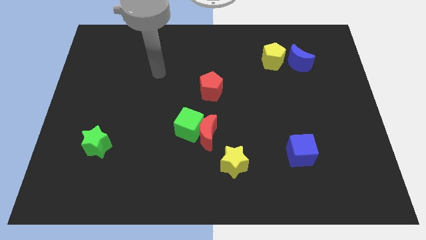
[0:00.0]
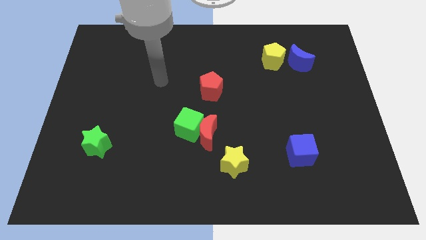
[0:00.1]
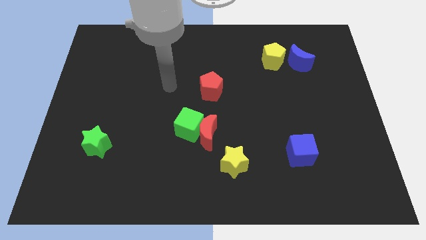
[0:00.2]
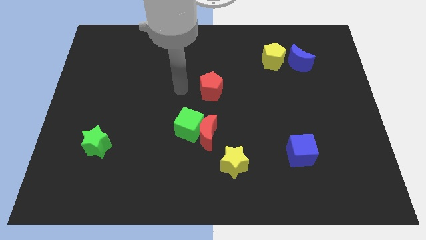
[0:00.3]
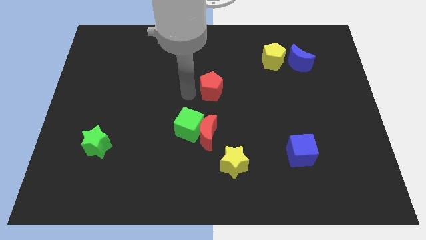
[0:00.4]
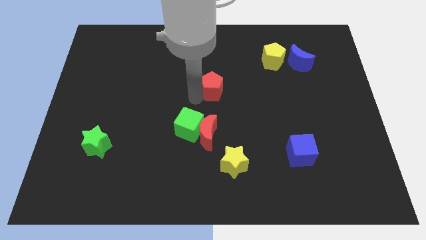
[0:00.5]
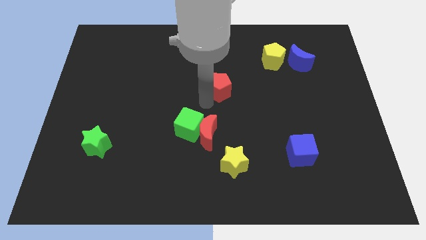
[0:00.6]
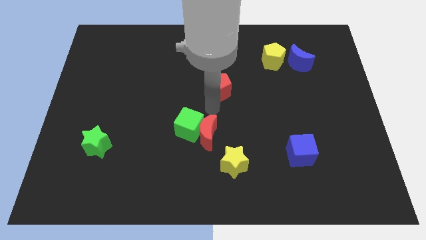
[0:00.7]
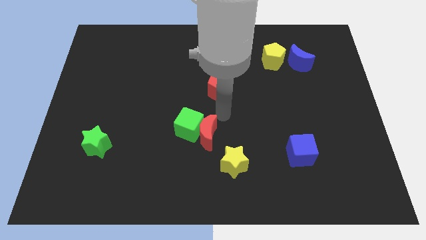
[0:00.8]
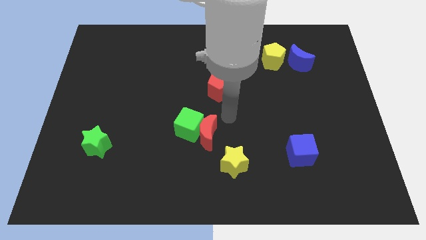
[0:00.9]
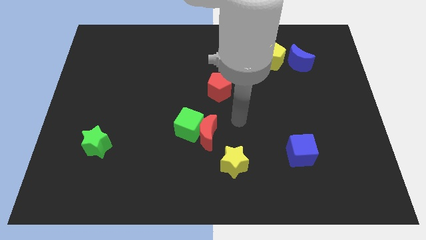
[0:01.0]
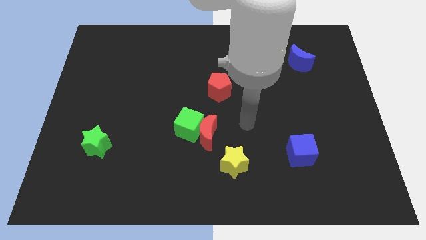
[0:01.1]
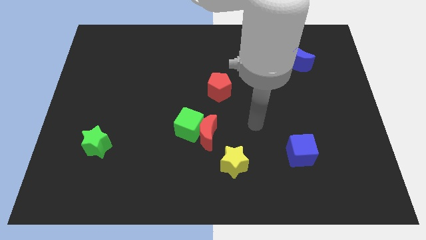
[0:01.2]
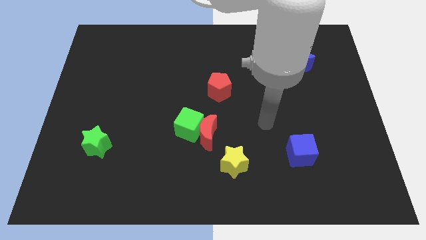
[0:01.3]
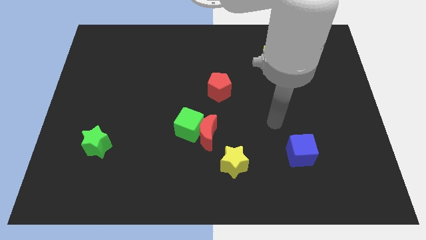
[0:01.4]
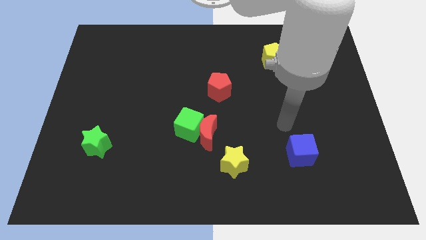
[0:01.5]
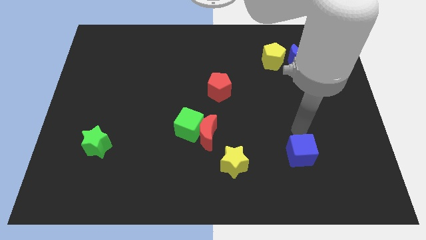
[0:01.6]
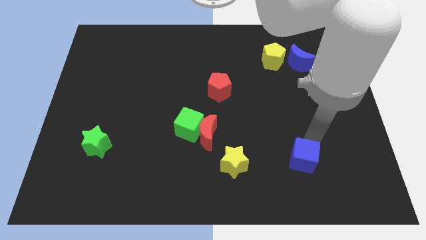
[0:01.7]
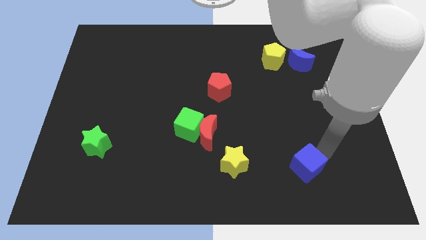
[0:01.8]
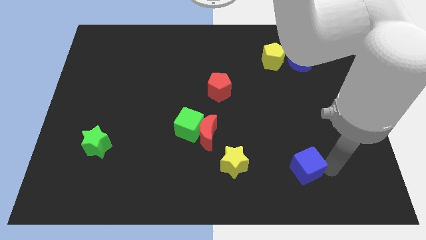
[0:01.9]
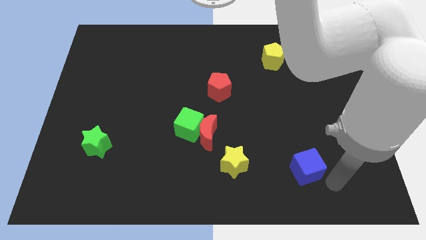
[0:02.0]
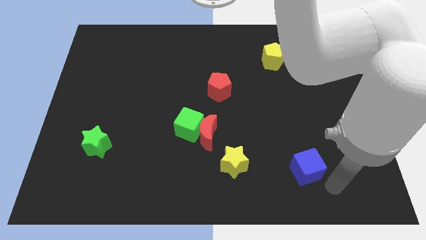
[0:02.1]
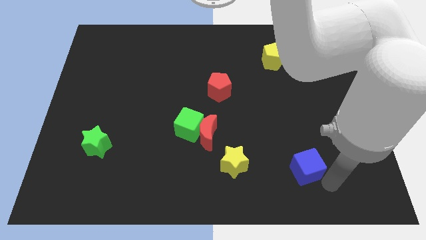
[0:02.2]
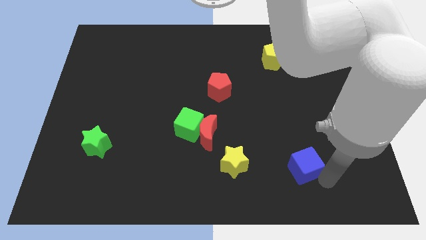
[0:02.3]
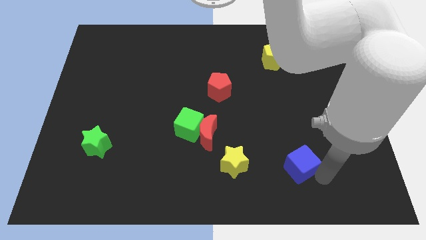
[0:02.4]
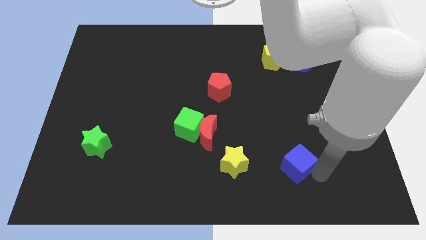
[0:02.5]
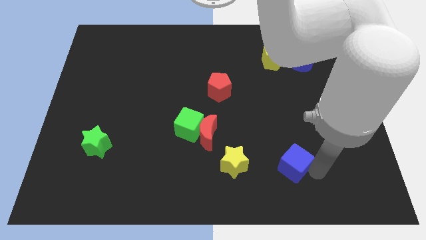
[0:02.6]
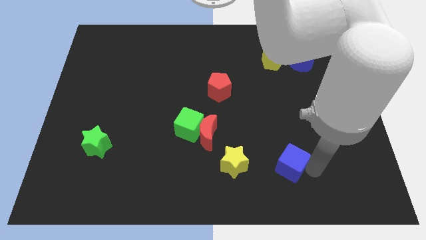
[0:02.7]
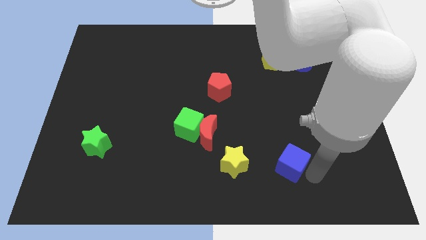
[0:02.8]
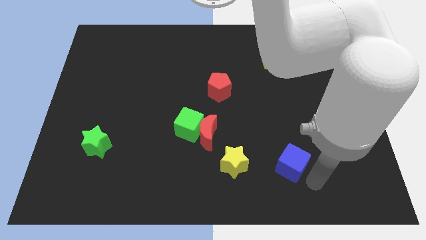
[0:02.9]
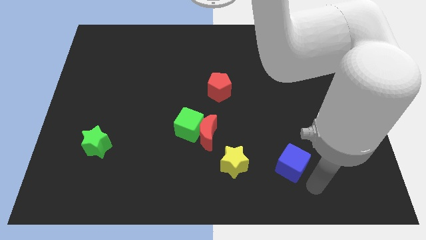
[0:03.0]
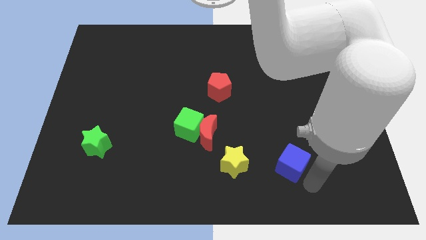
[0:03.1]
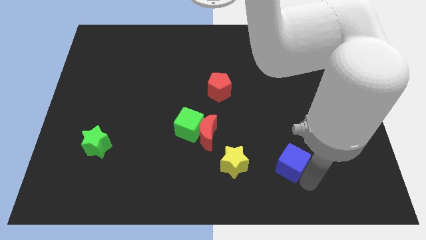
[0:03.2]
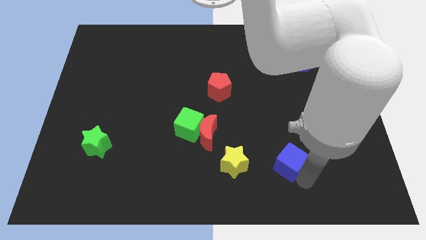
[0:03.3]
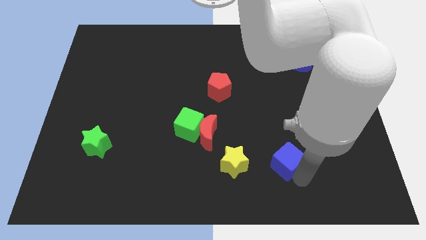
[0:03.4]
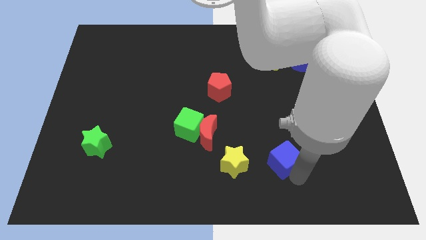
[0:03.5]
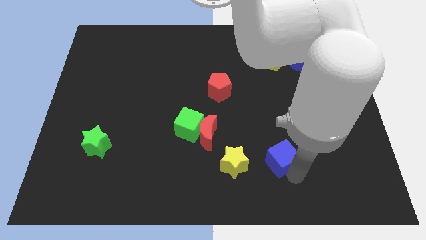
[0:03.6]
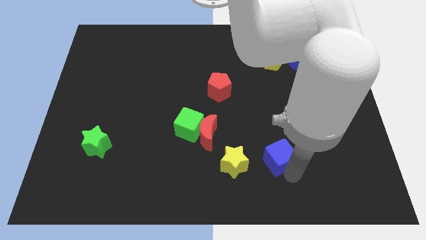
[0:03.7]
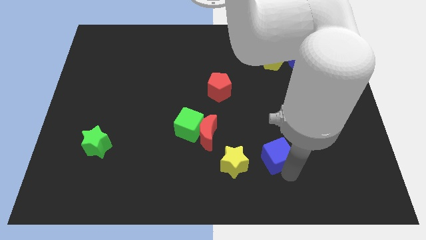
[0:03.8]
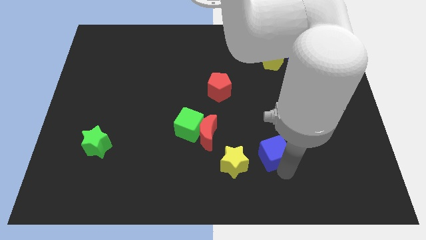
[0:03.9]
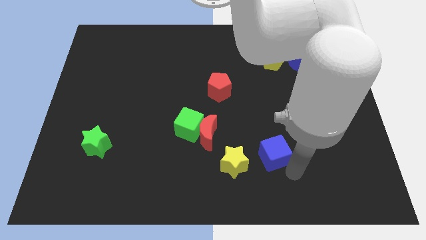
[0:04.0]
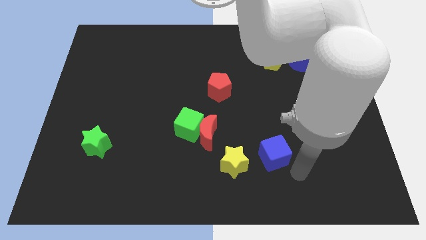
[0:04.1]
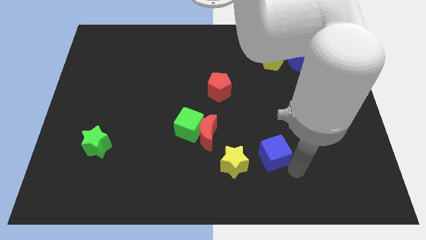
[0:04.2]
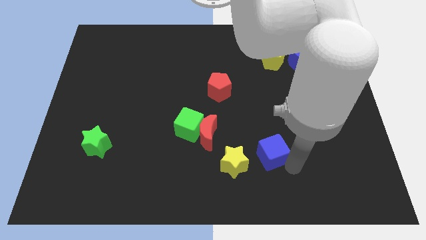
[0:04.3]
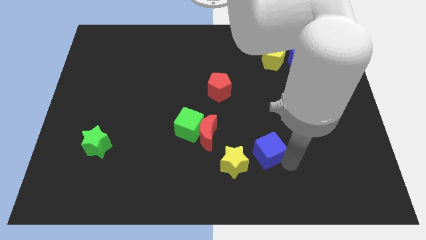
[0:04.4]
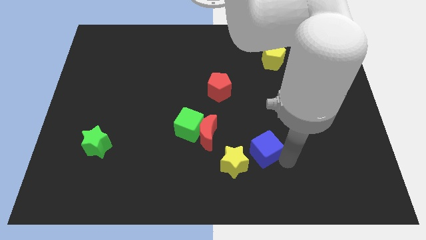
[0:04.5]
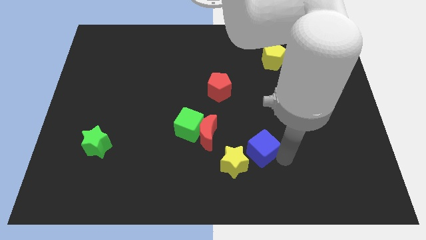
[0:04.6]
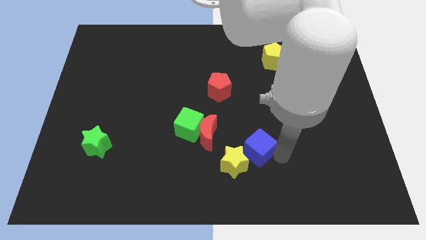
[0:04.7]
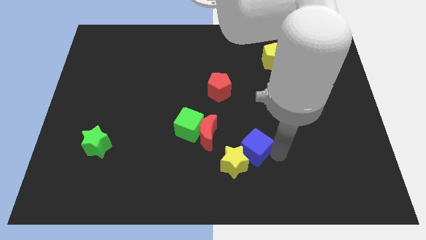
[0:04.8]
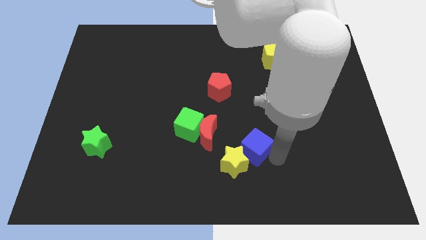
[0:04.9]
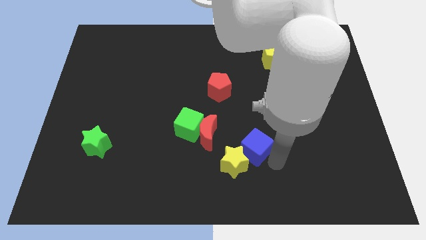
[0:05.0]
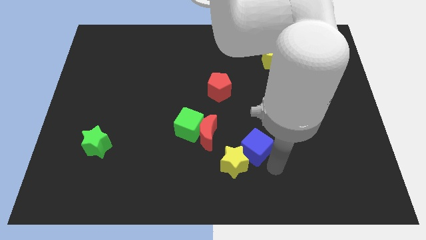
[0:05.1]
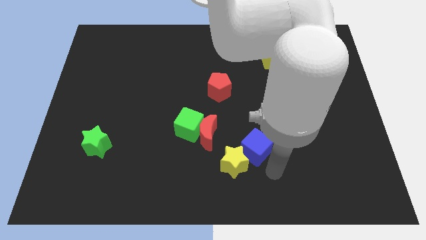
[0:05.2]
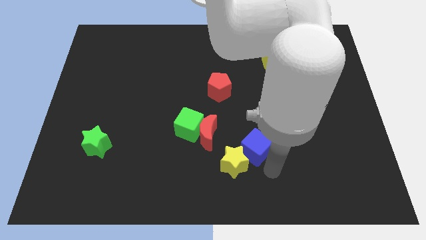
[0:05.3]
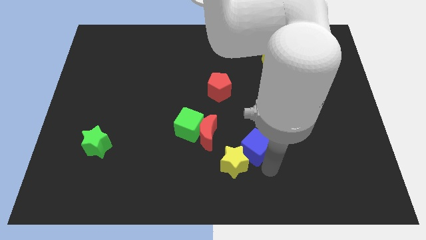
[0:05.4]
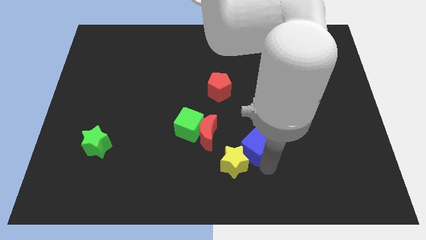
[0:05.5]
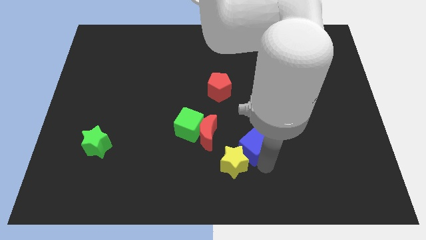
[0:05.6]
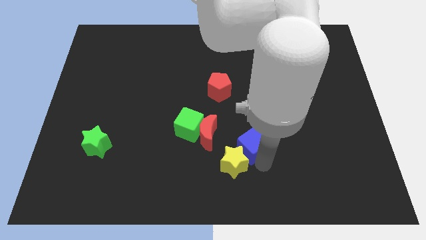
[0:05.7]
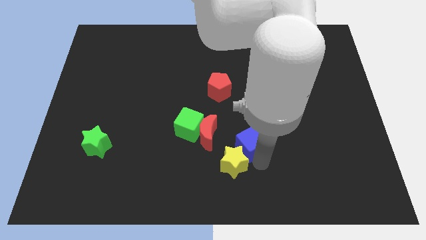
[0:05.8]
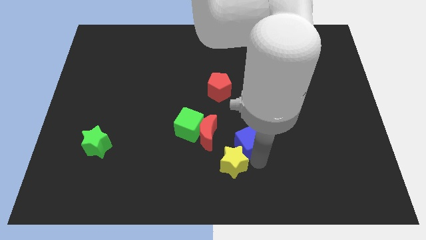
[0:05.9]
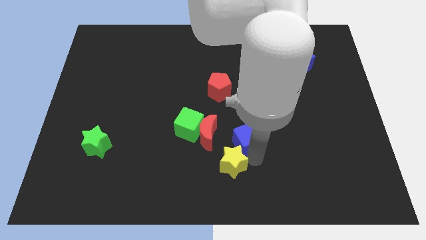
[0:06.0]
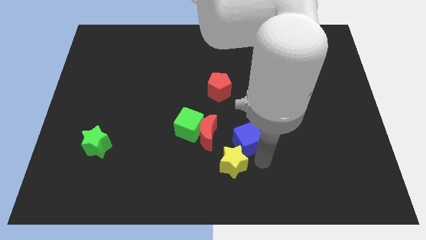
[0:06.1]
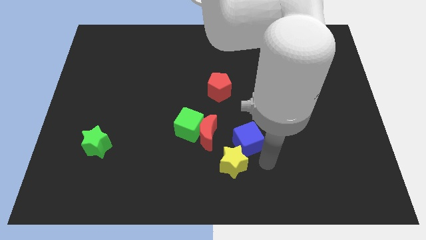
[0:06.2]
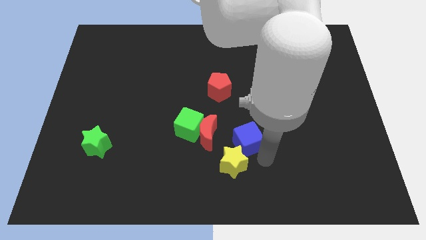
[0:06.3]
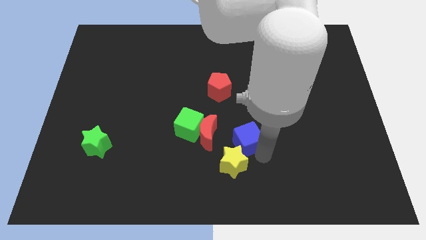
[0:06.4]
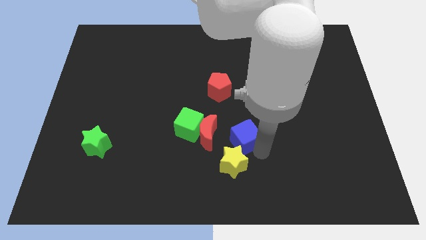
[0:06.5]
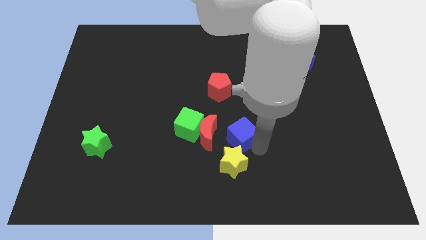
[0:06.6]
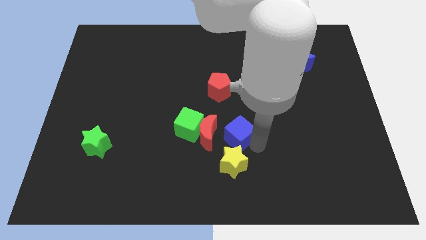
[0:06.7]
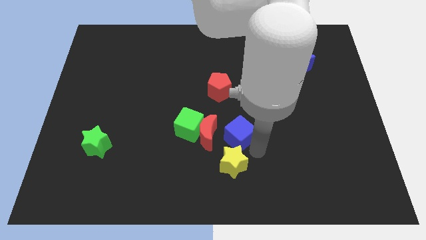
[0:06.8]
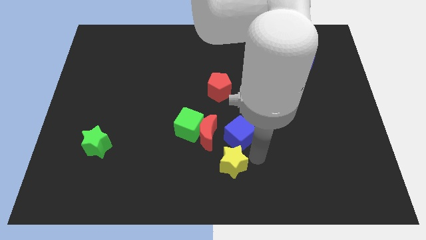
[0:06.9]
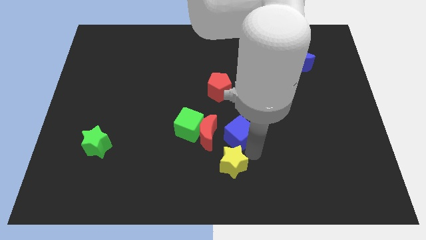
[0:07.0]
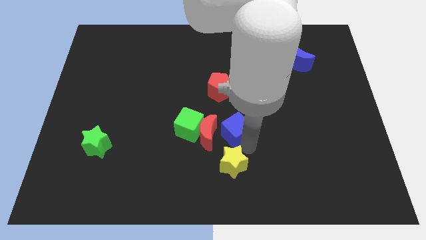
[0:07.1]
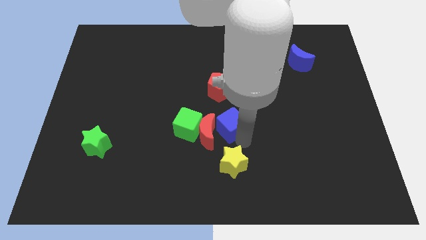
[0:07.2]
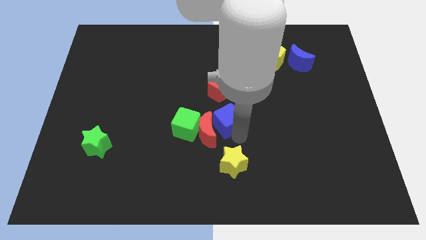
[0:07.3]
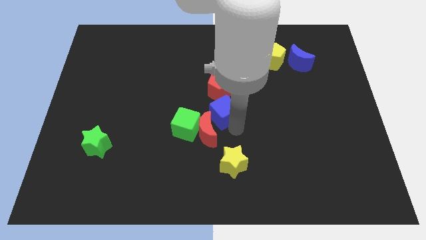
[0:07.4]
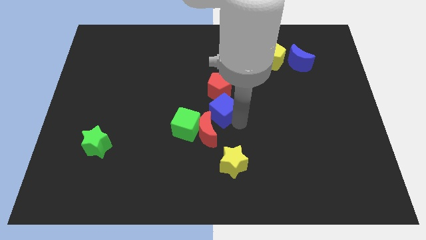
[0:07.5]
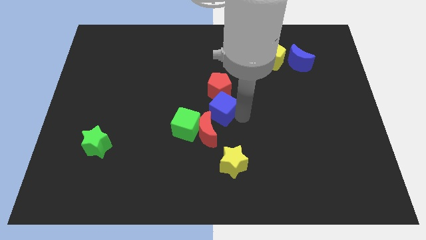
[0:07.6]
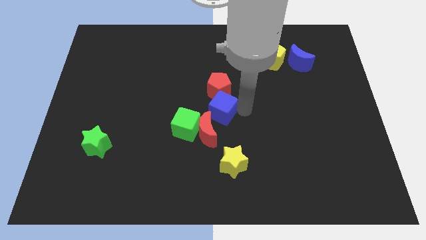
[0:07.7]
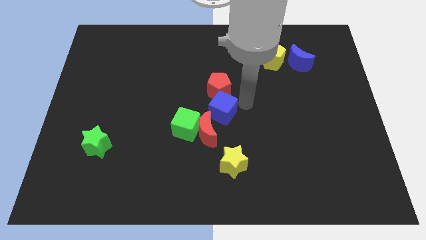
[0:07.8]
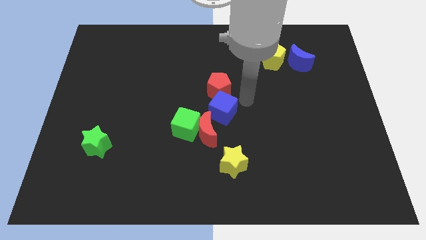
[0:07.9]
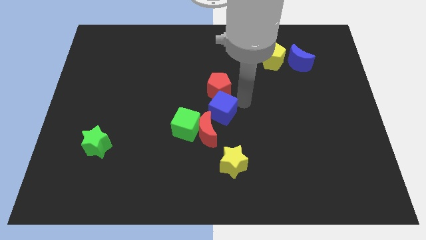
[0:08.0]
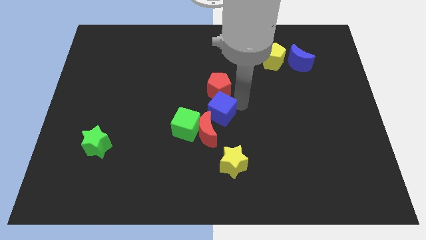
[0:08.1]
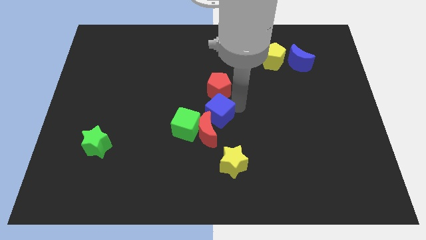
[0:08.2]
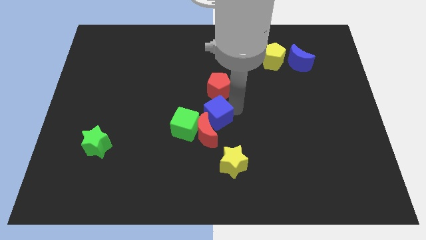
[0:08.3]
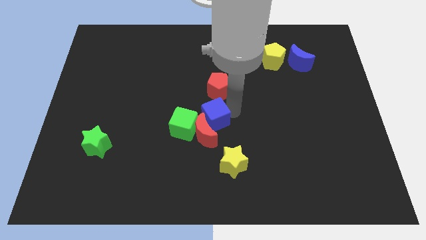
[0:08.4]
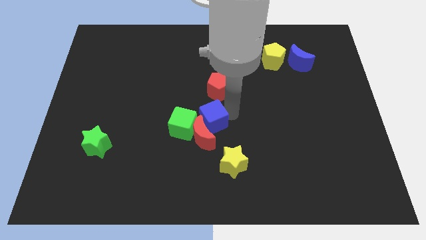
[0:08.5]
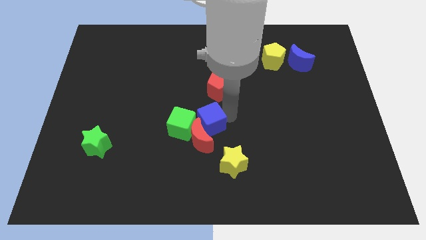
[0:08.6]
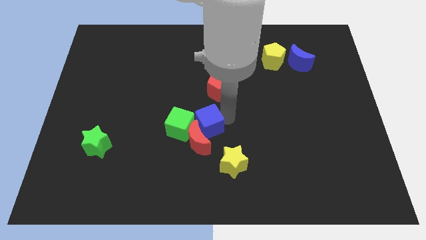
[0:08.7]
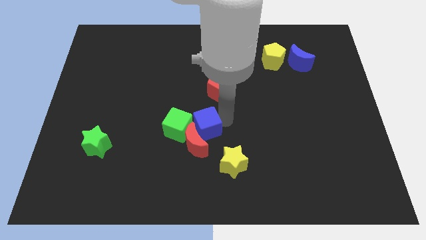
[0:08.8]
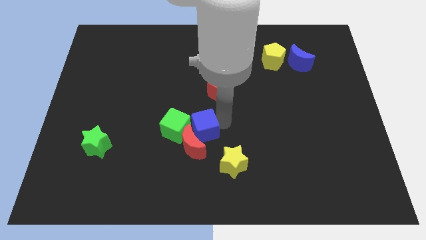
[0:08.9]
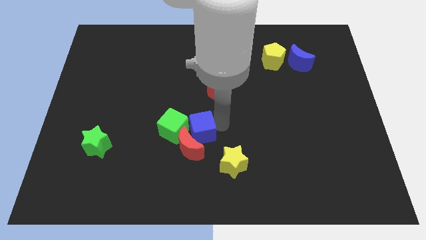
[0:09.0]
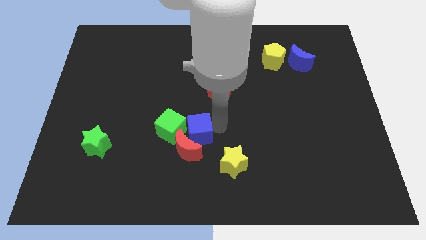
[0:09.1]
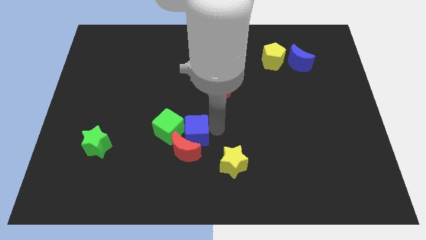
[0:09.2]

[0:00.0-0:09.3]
move the blue cube to the green cube
